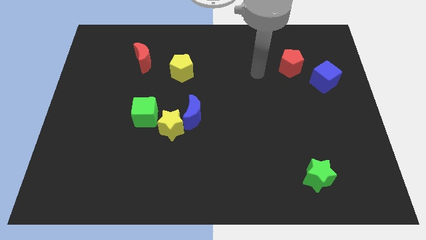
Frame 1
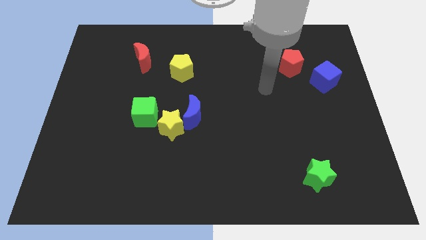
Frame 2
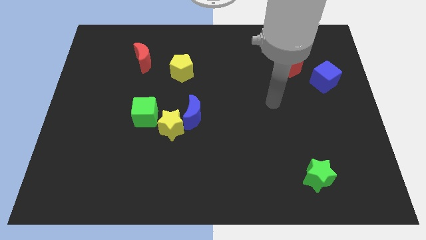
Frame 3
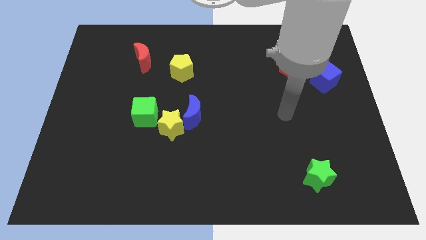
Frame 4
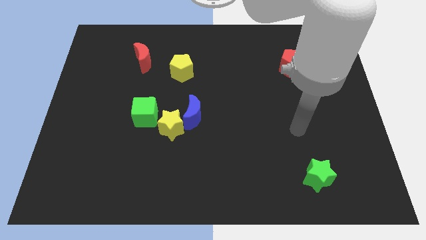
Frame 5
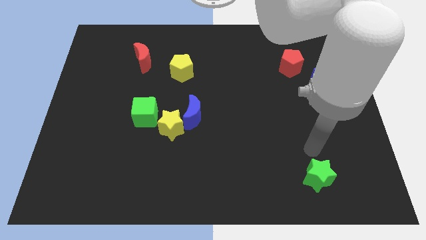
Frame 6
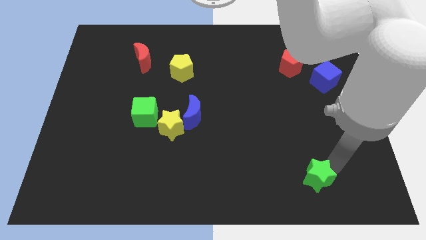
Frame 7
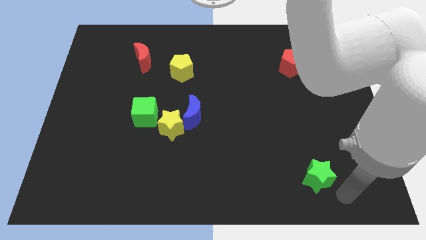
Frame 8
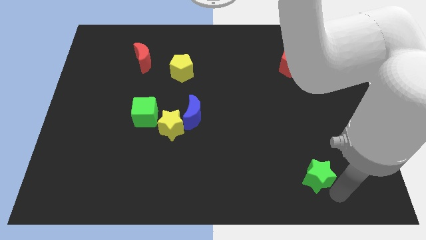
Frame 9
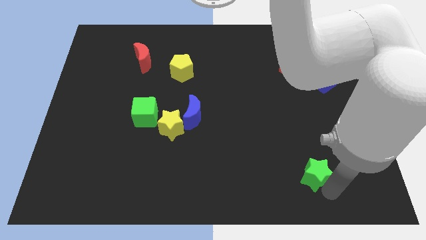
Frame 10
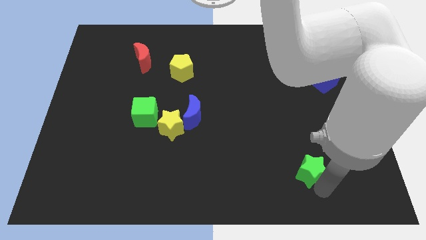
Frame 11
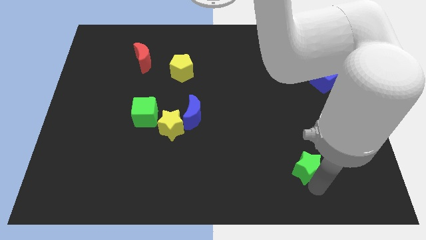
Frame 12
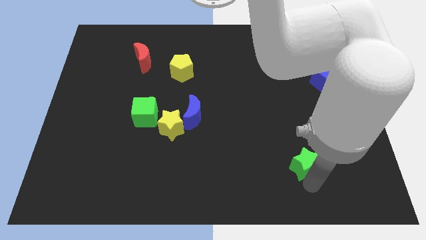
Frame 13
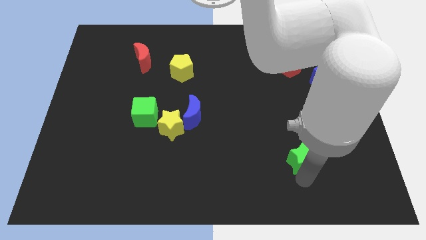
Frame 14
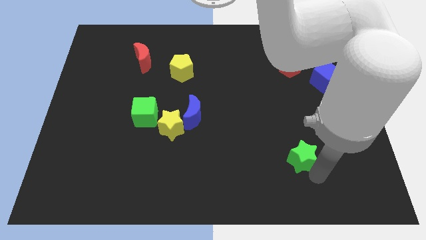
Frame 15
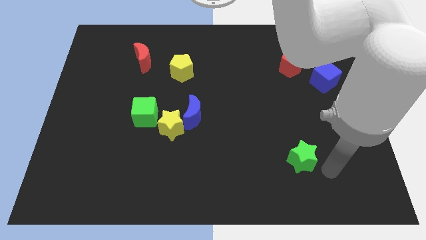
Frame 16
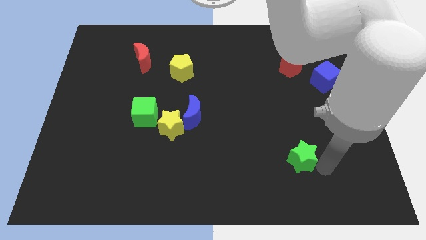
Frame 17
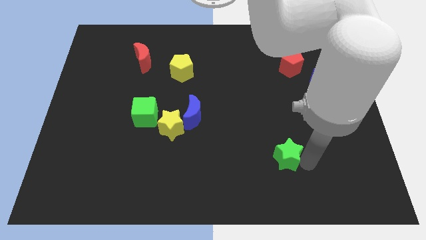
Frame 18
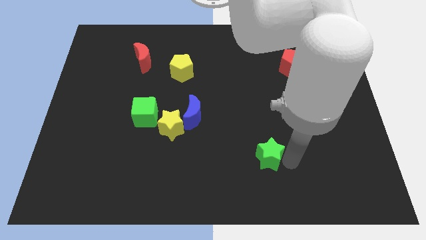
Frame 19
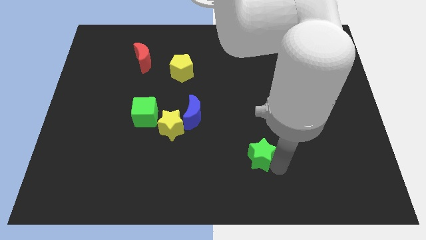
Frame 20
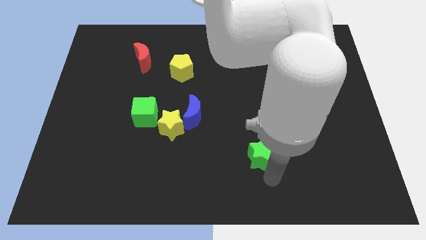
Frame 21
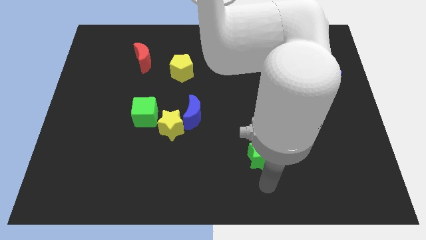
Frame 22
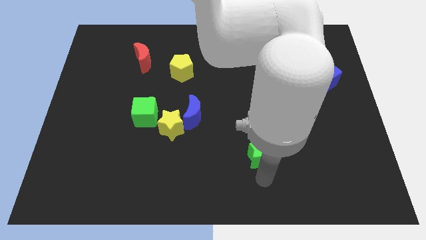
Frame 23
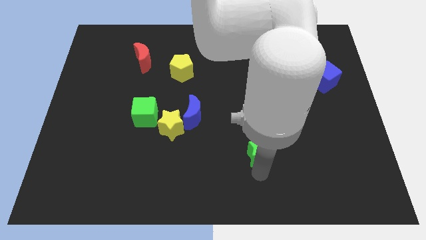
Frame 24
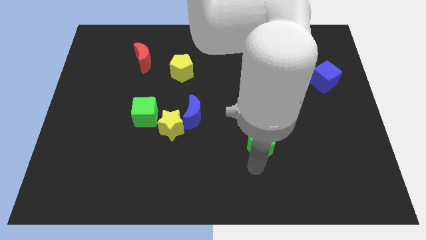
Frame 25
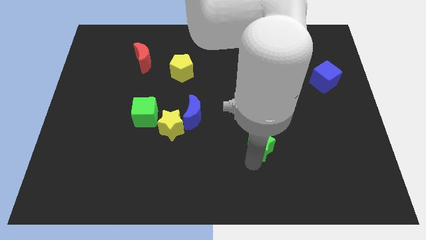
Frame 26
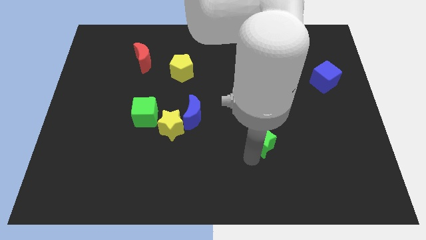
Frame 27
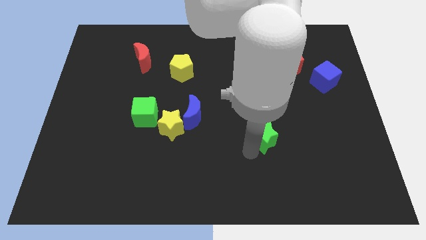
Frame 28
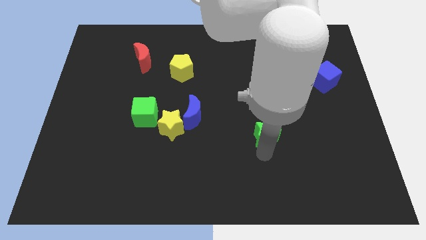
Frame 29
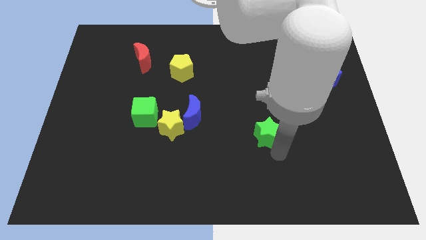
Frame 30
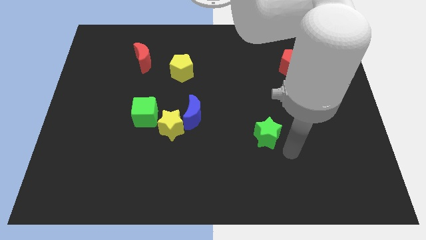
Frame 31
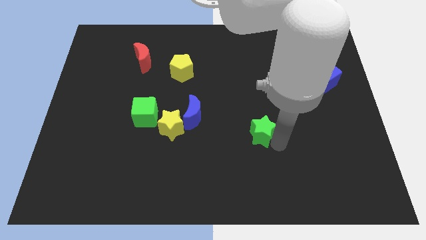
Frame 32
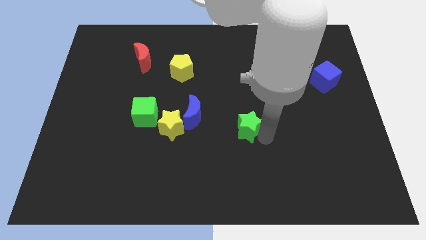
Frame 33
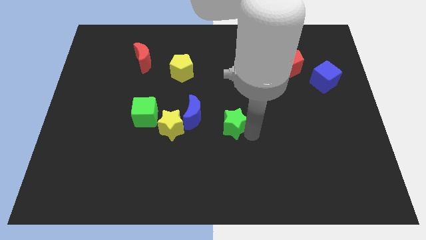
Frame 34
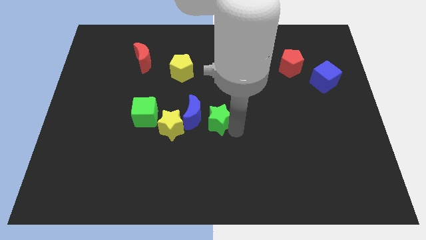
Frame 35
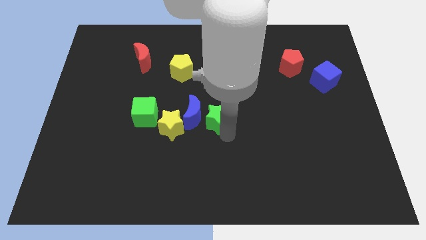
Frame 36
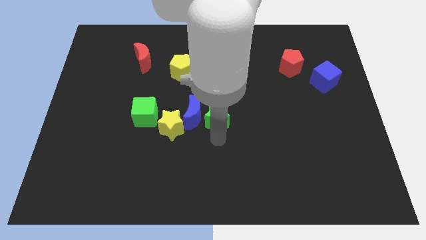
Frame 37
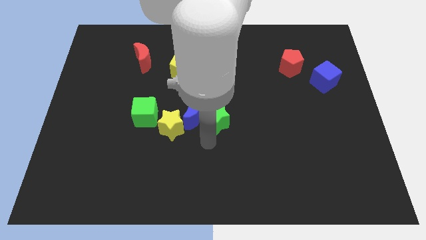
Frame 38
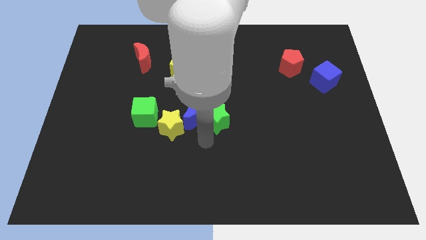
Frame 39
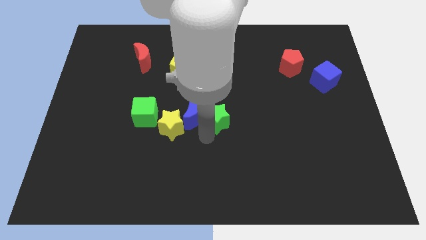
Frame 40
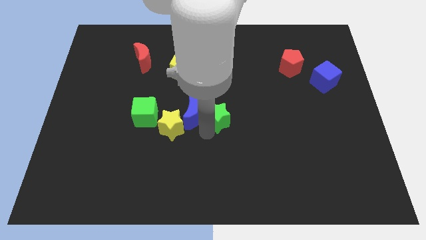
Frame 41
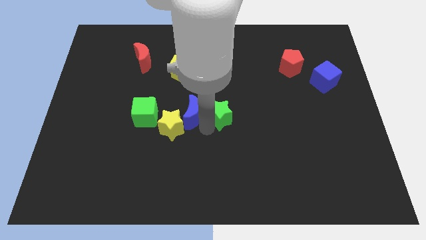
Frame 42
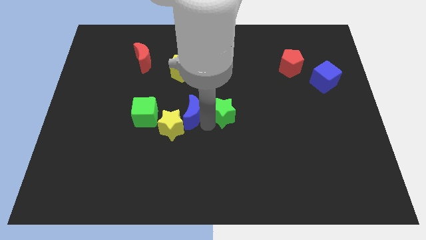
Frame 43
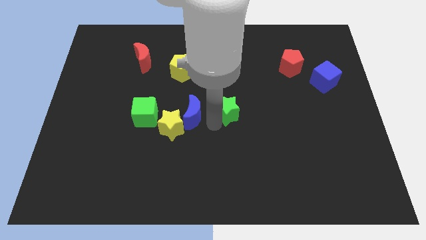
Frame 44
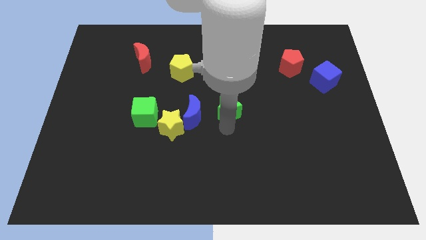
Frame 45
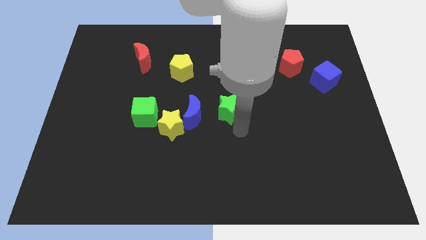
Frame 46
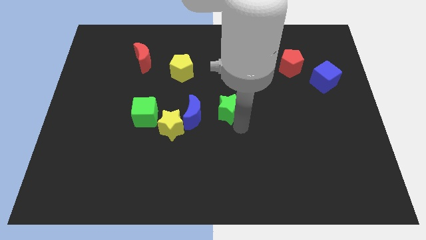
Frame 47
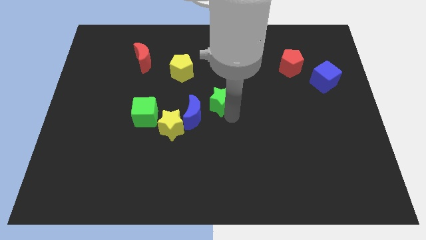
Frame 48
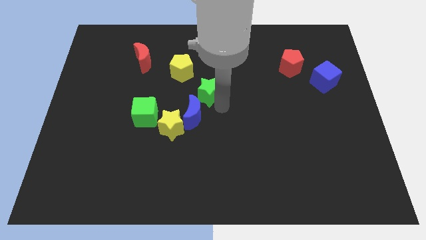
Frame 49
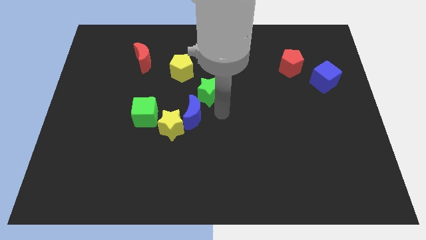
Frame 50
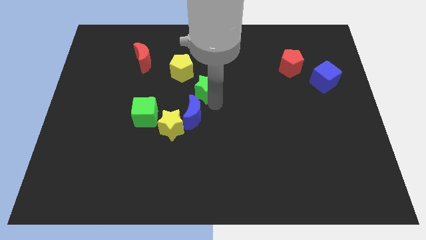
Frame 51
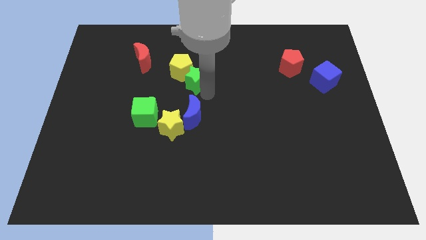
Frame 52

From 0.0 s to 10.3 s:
push the green star close to the yellow pentagon

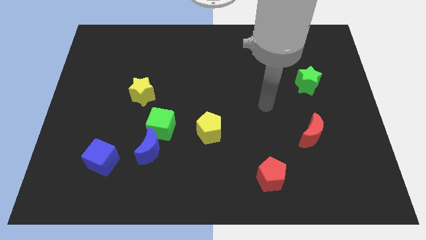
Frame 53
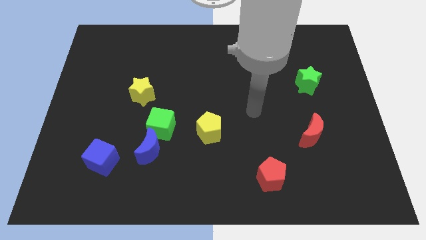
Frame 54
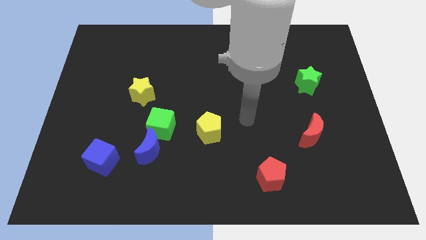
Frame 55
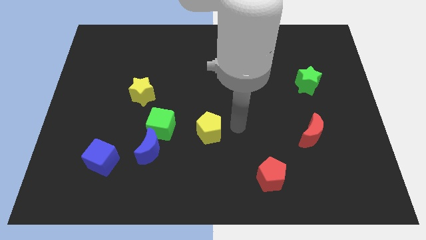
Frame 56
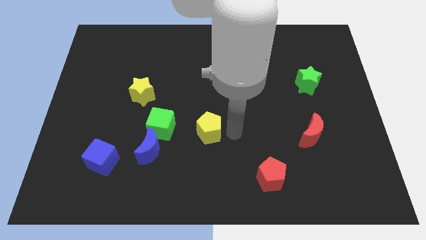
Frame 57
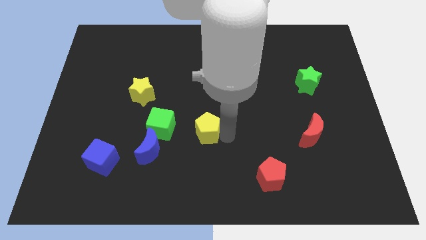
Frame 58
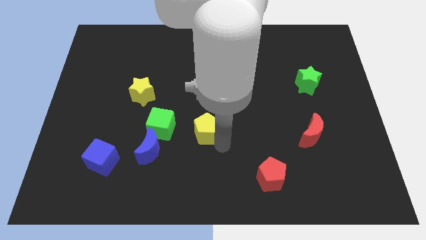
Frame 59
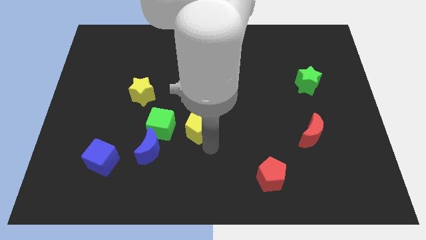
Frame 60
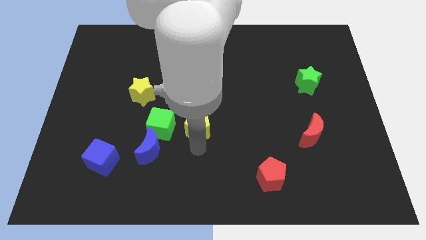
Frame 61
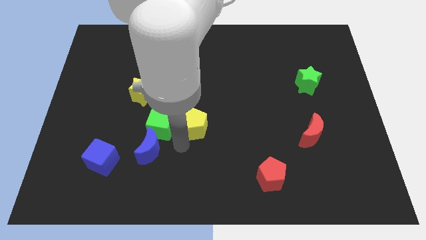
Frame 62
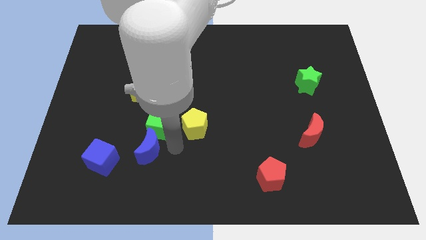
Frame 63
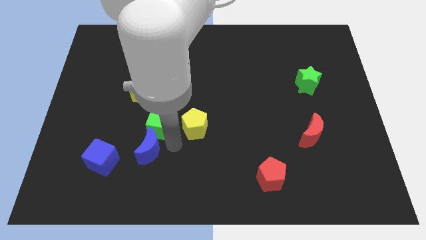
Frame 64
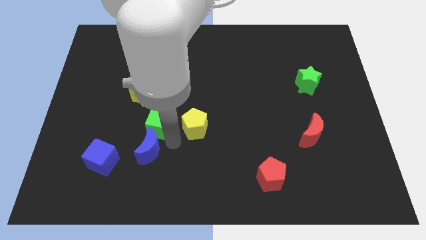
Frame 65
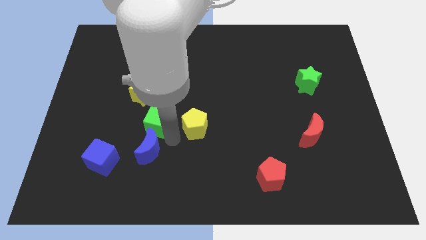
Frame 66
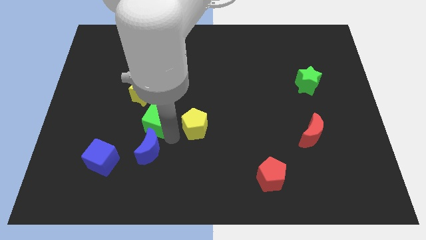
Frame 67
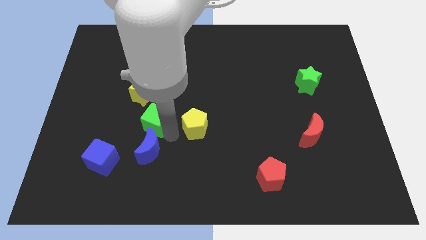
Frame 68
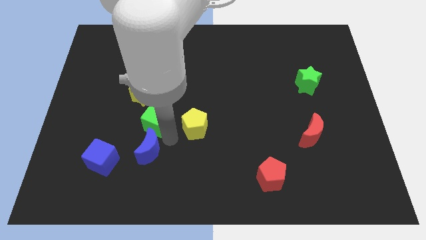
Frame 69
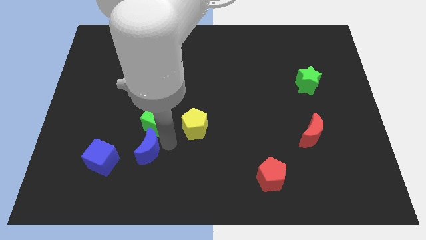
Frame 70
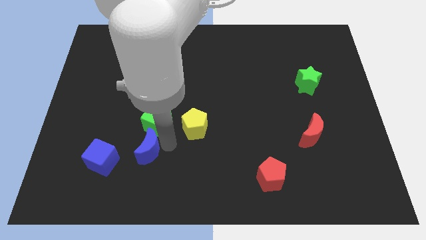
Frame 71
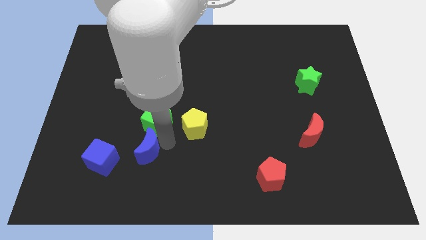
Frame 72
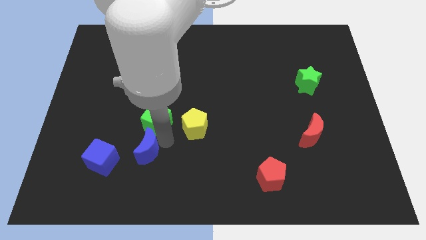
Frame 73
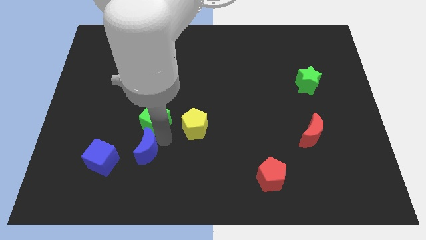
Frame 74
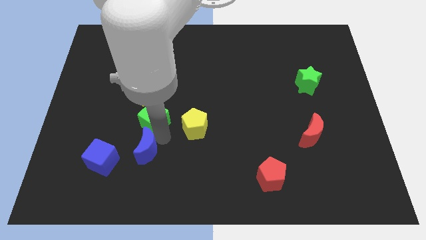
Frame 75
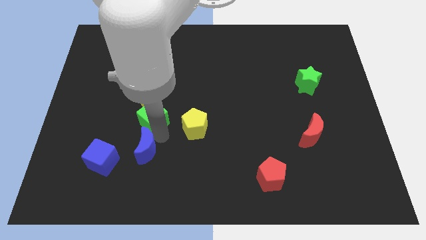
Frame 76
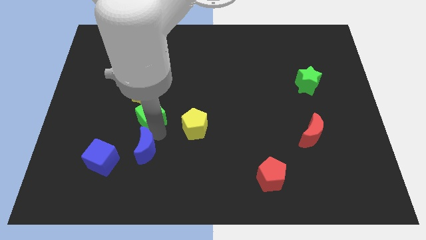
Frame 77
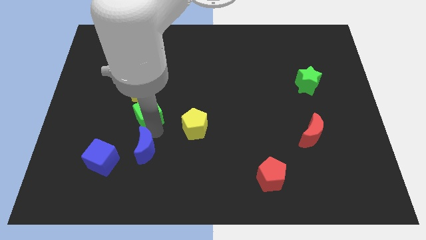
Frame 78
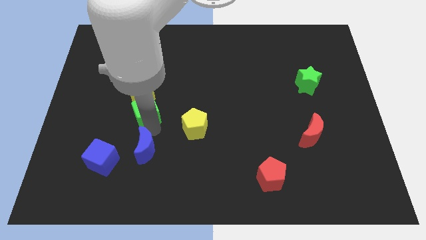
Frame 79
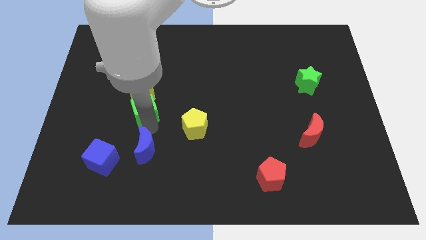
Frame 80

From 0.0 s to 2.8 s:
put the green cube close to the yellow star
